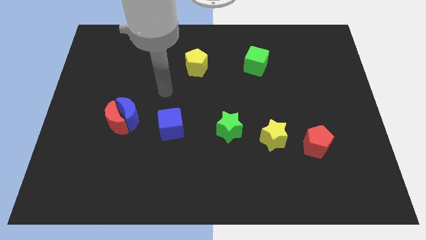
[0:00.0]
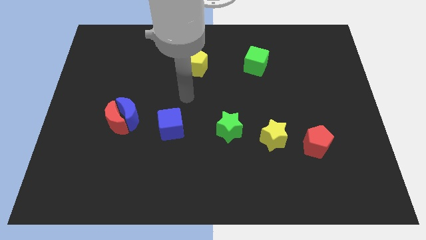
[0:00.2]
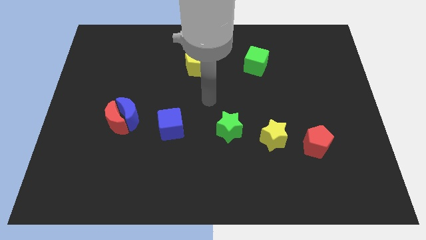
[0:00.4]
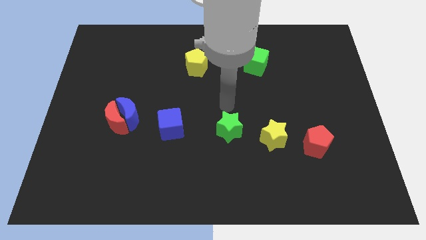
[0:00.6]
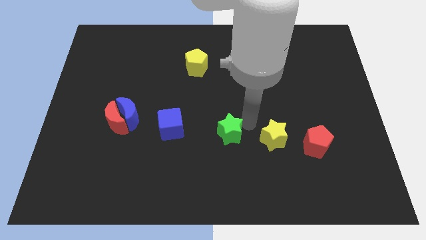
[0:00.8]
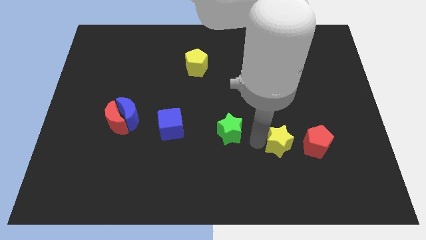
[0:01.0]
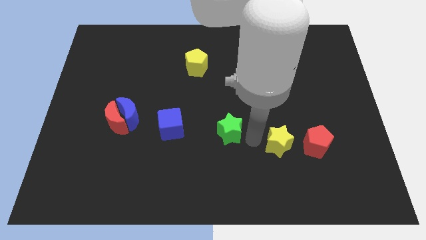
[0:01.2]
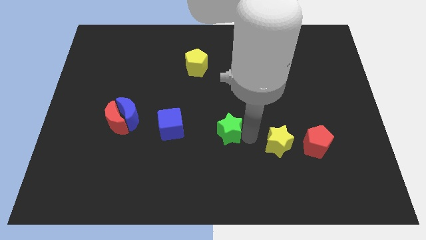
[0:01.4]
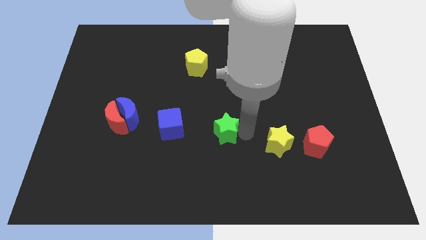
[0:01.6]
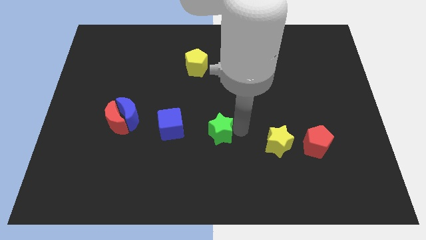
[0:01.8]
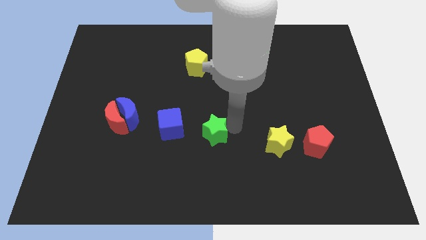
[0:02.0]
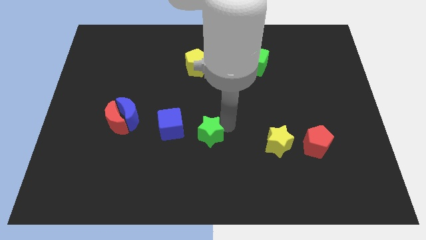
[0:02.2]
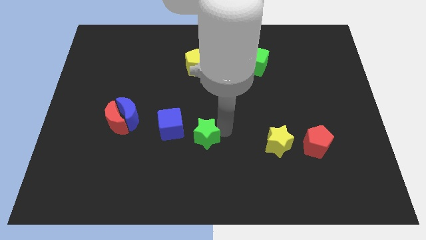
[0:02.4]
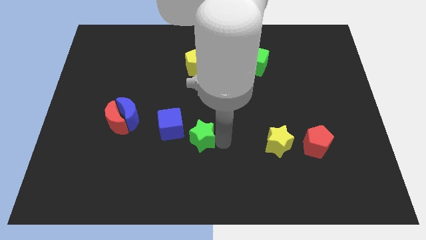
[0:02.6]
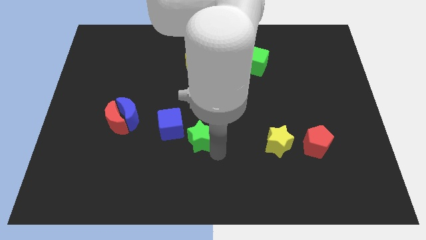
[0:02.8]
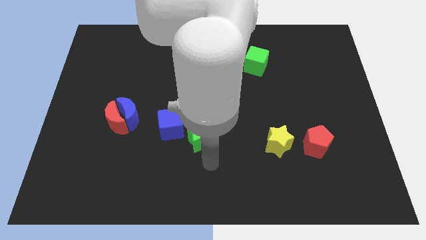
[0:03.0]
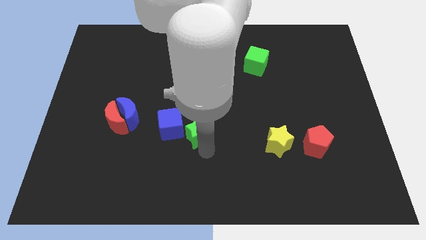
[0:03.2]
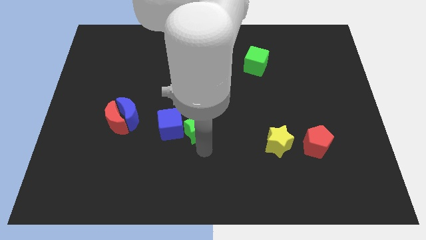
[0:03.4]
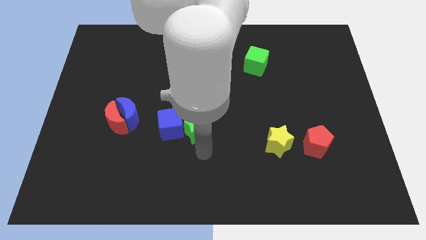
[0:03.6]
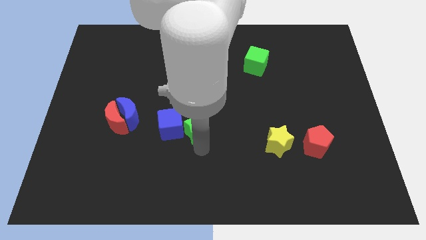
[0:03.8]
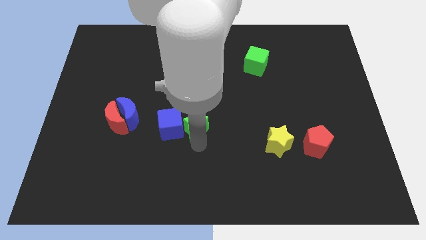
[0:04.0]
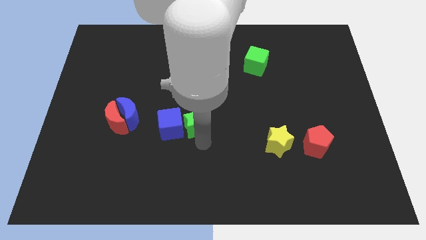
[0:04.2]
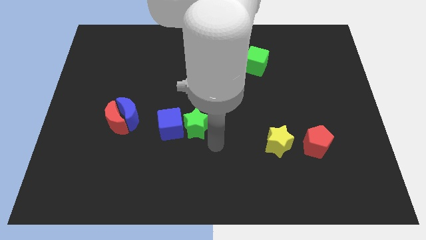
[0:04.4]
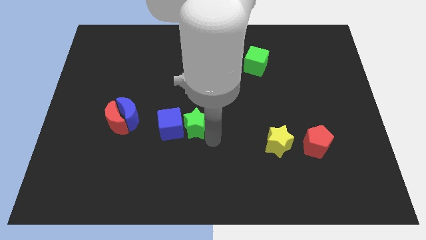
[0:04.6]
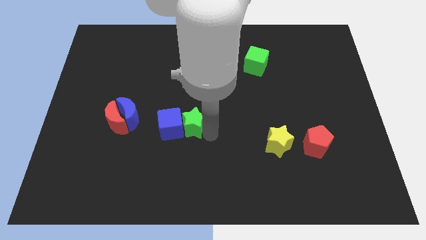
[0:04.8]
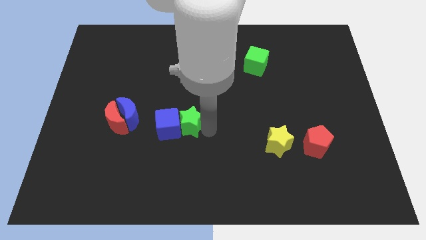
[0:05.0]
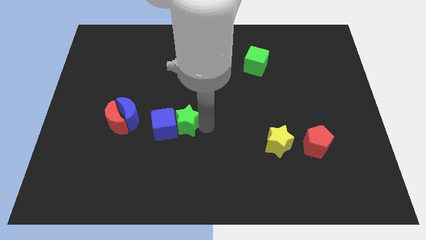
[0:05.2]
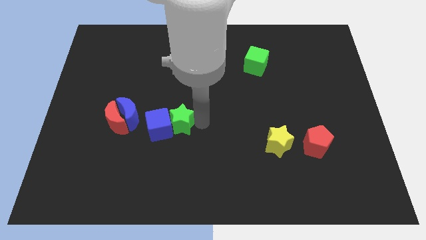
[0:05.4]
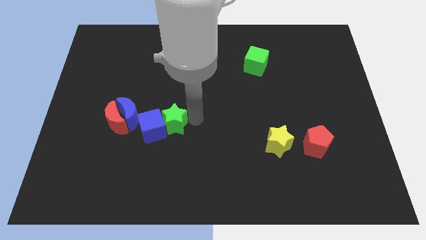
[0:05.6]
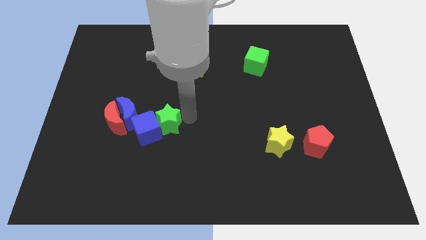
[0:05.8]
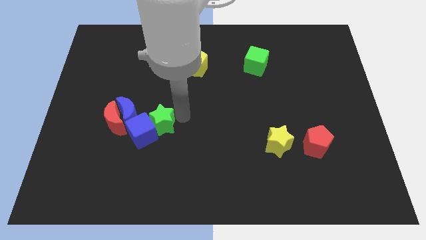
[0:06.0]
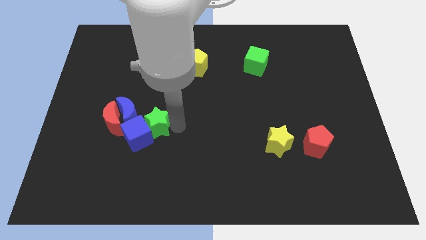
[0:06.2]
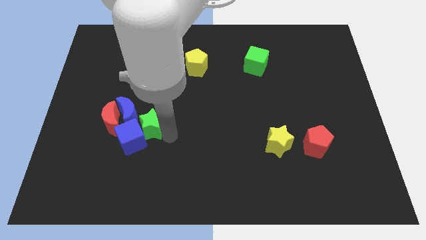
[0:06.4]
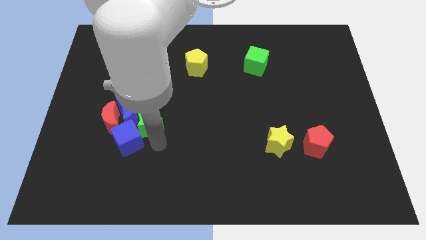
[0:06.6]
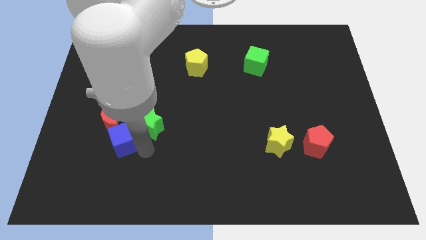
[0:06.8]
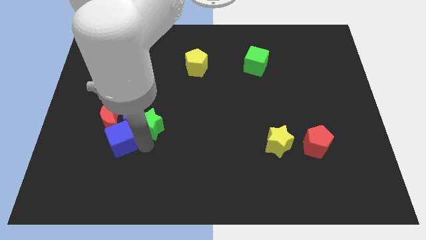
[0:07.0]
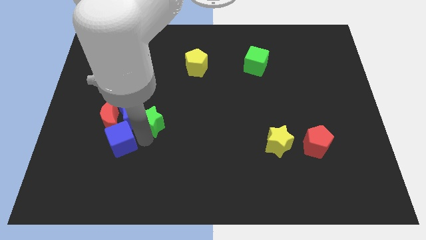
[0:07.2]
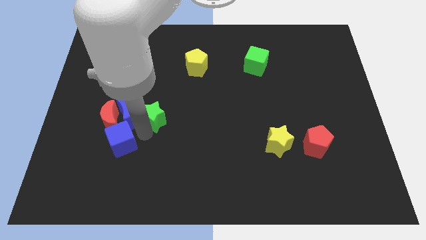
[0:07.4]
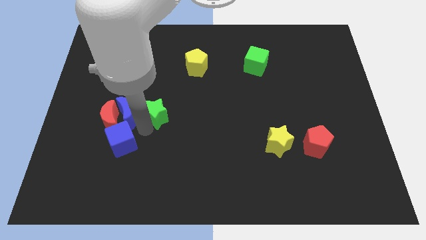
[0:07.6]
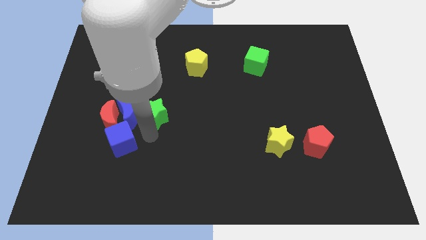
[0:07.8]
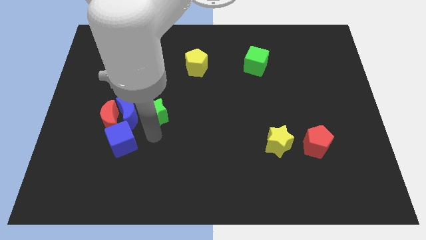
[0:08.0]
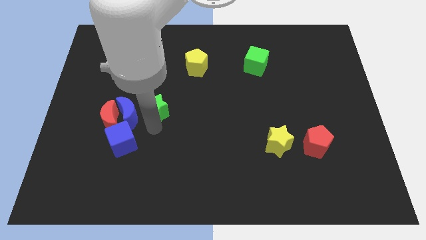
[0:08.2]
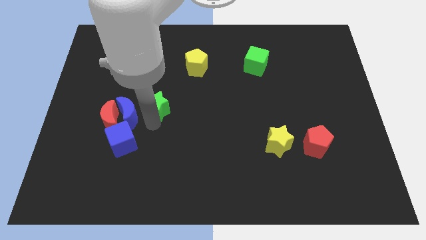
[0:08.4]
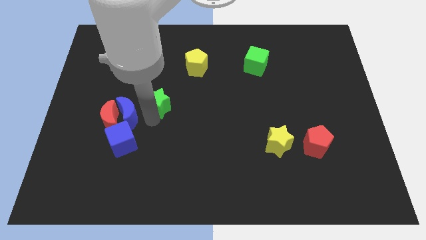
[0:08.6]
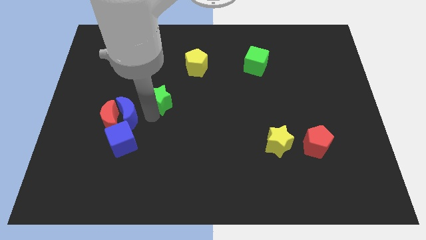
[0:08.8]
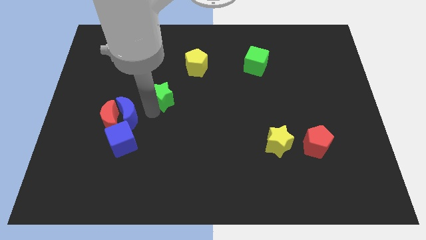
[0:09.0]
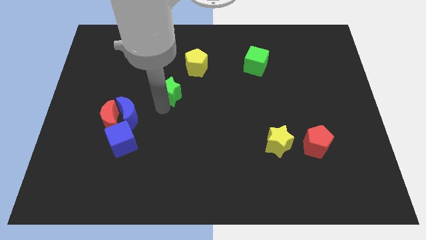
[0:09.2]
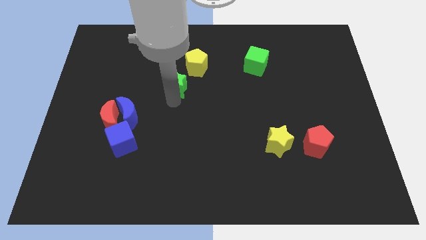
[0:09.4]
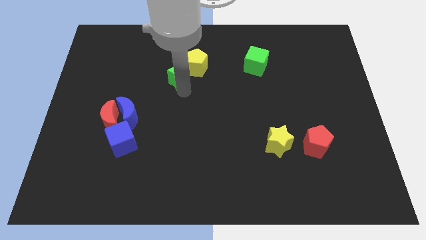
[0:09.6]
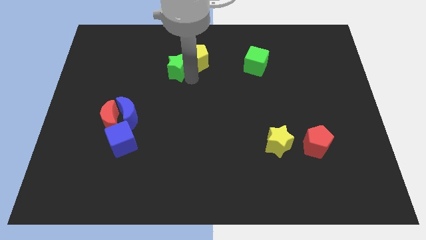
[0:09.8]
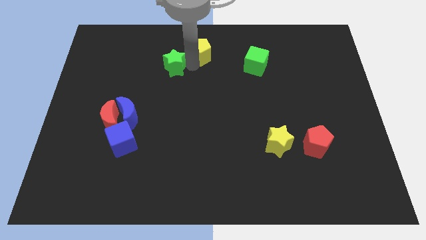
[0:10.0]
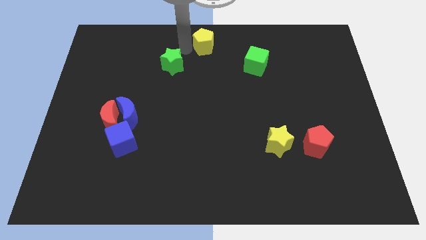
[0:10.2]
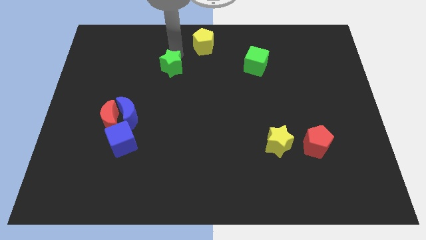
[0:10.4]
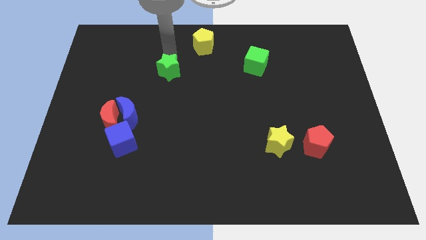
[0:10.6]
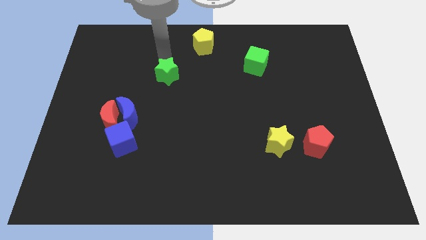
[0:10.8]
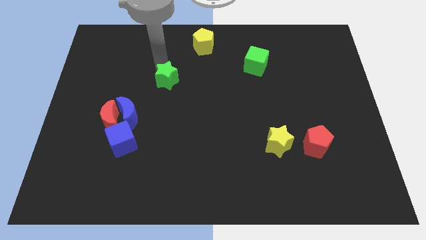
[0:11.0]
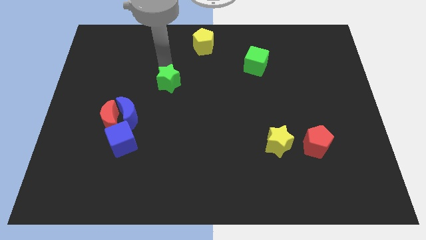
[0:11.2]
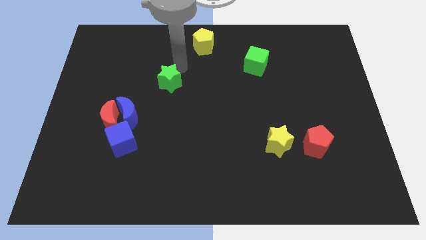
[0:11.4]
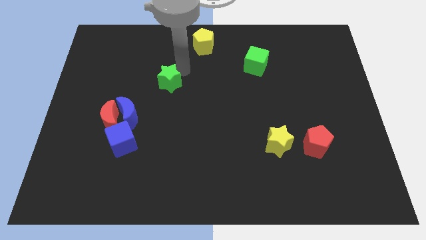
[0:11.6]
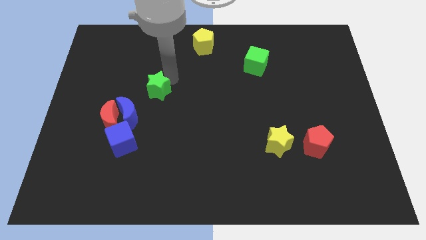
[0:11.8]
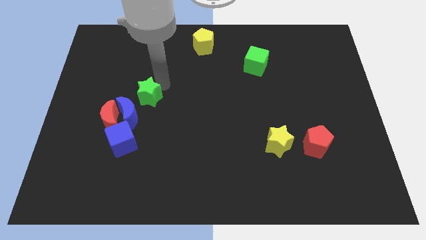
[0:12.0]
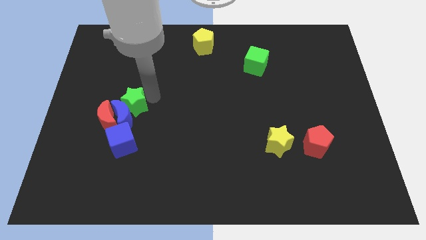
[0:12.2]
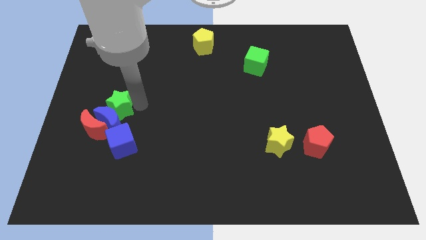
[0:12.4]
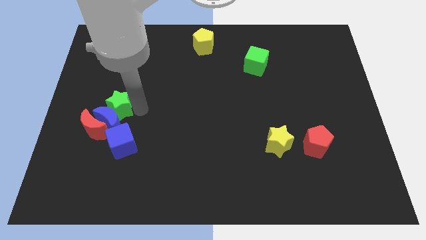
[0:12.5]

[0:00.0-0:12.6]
put the green star to the top of the red moon

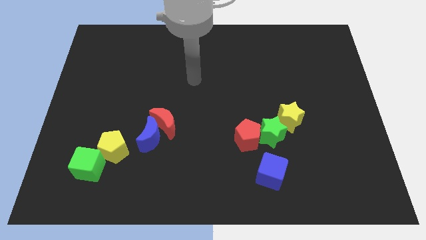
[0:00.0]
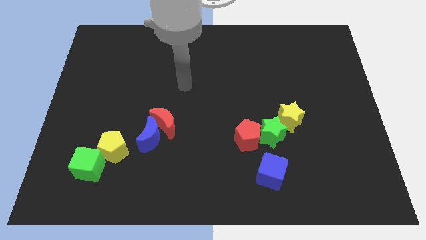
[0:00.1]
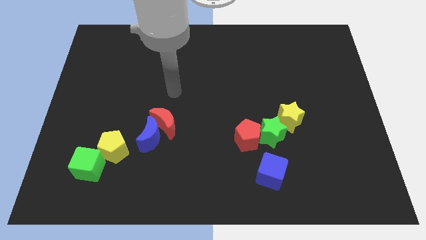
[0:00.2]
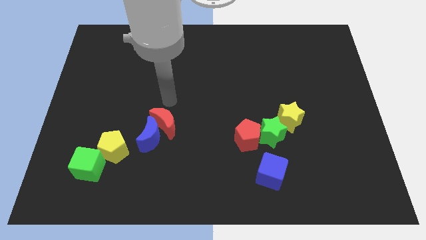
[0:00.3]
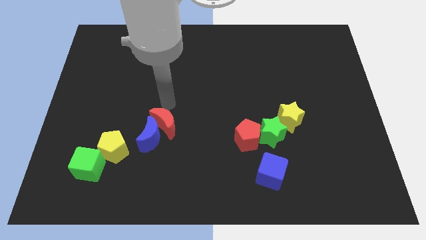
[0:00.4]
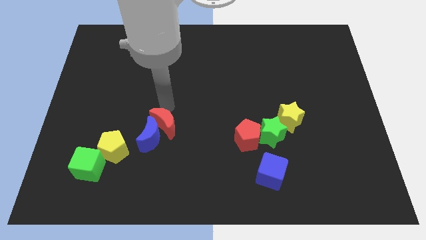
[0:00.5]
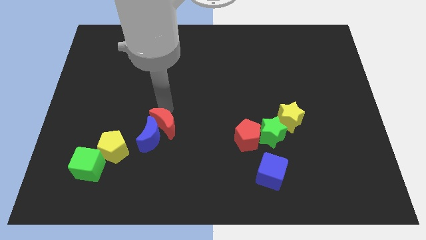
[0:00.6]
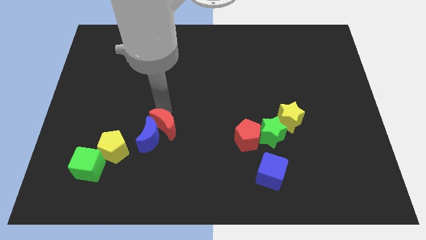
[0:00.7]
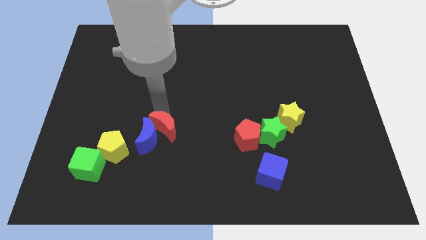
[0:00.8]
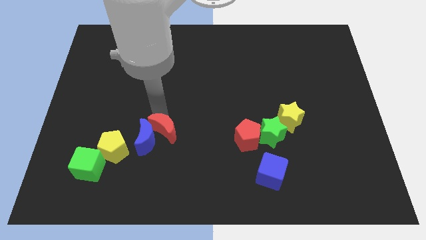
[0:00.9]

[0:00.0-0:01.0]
slide the red moon to the right of the yellow pentagon
